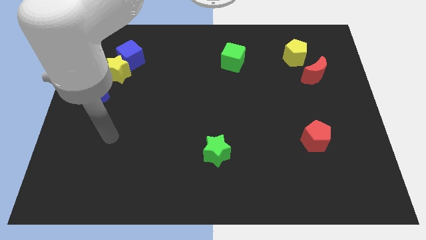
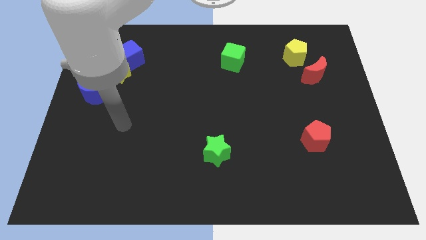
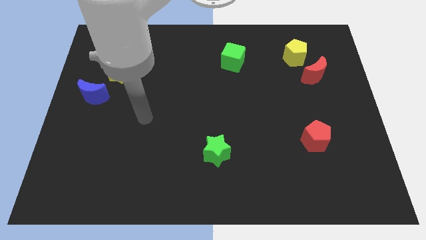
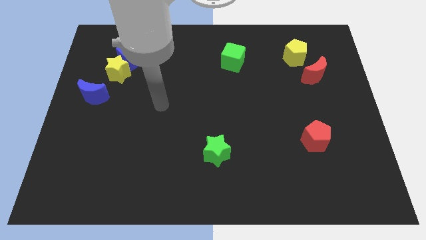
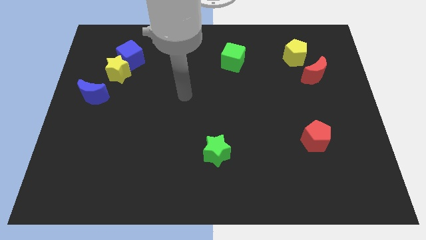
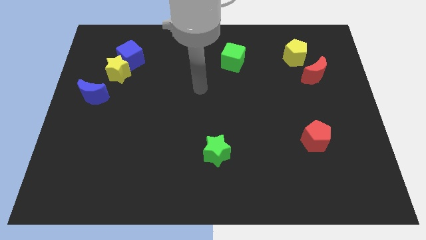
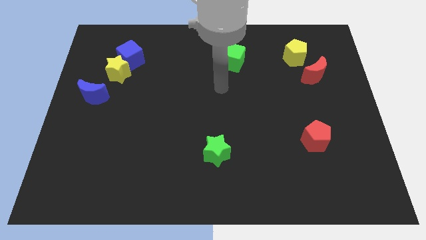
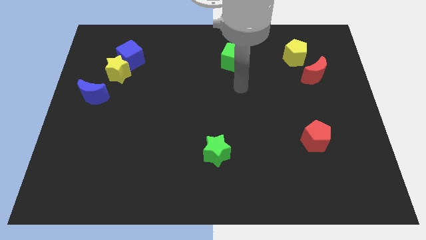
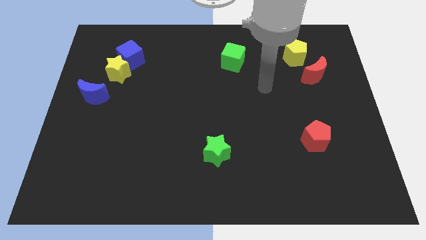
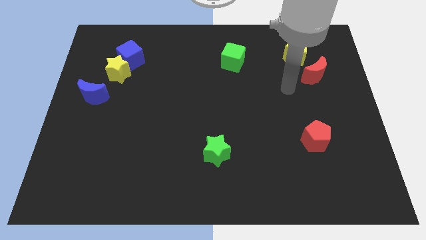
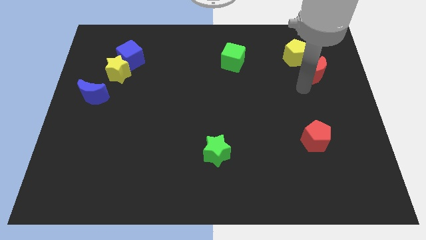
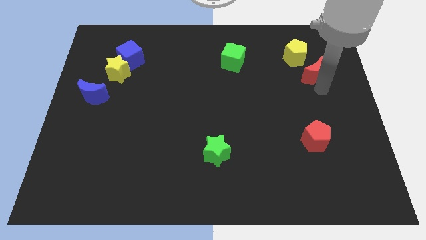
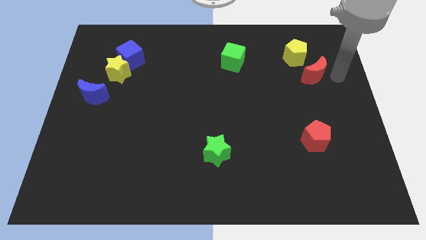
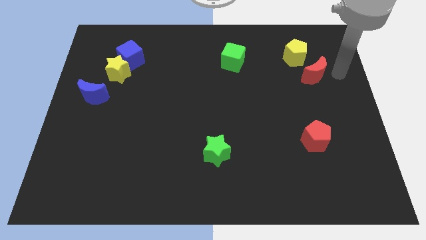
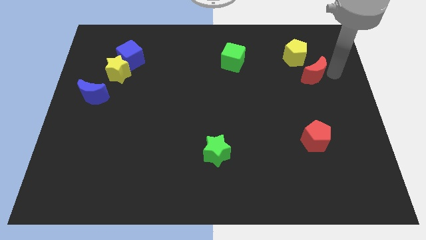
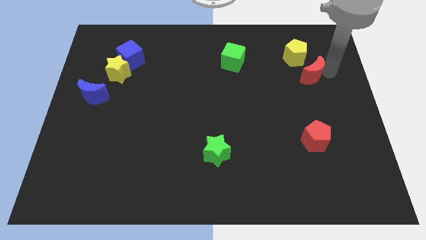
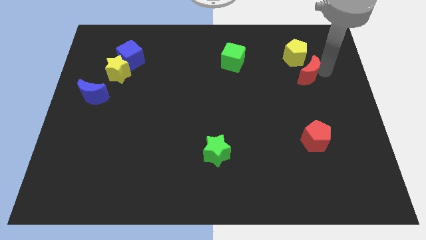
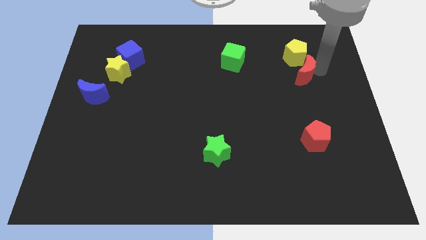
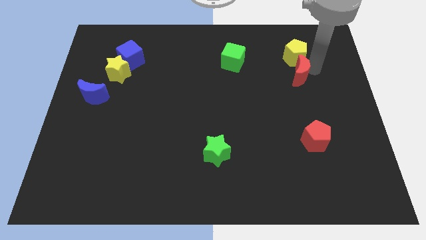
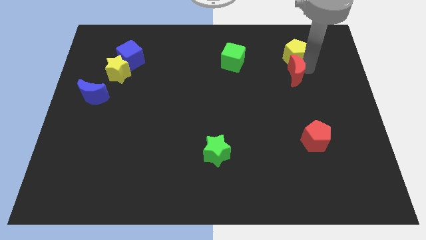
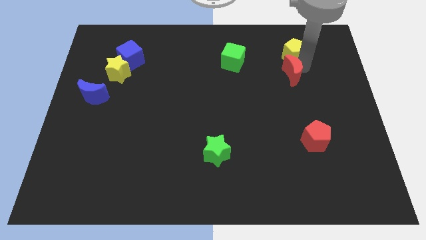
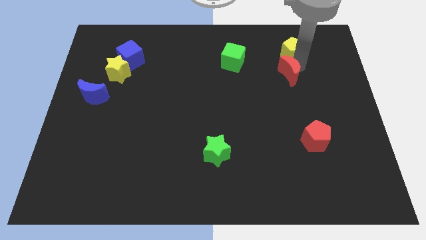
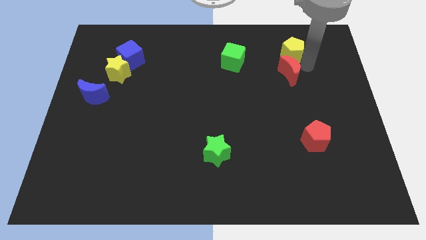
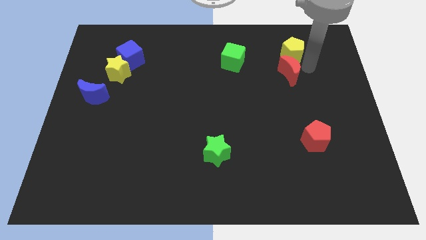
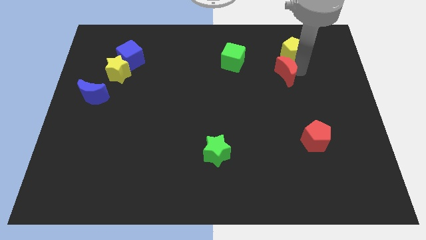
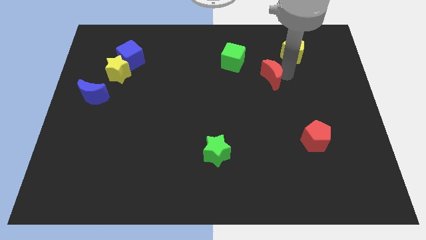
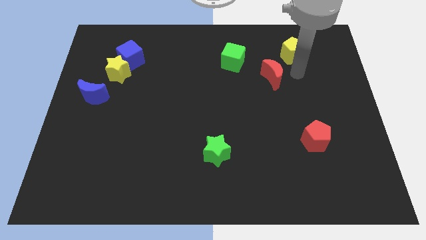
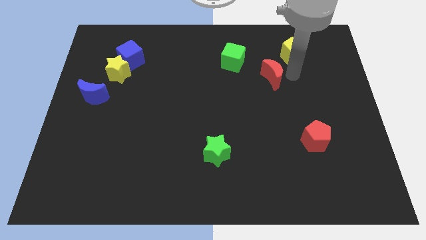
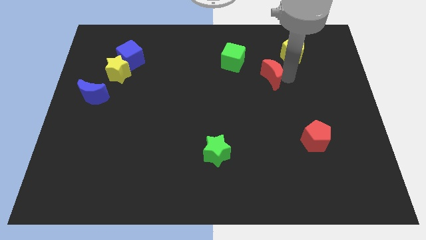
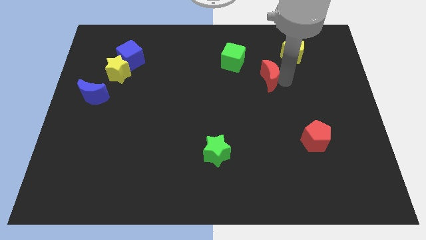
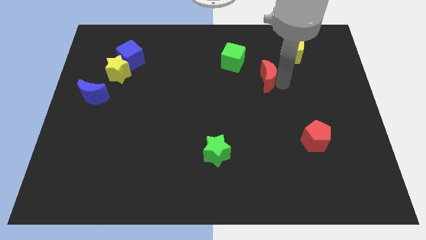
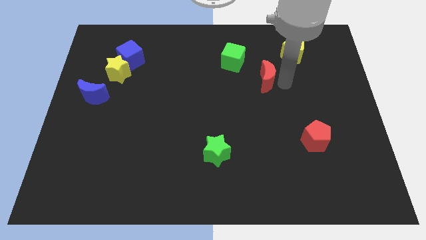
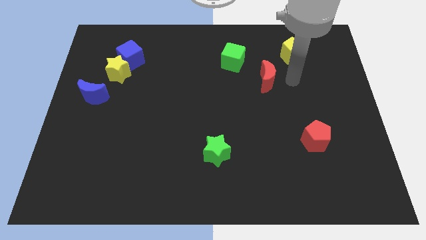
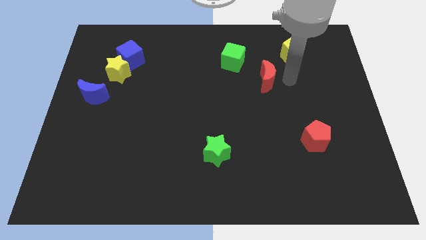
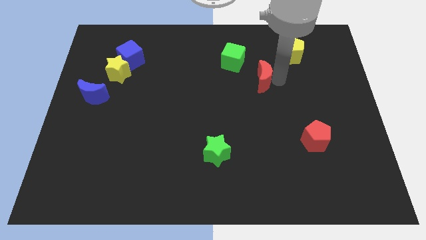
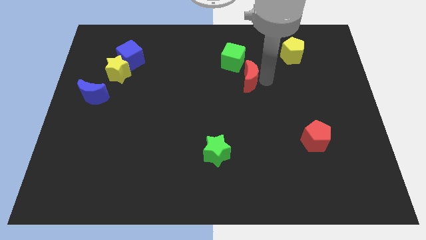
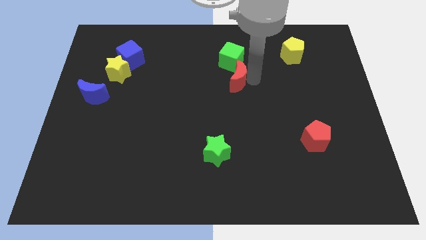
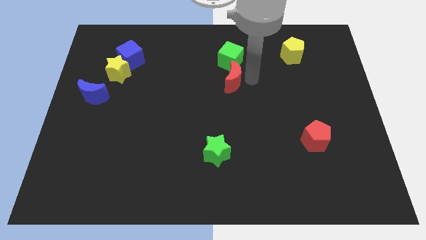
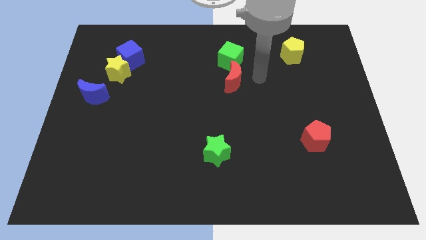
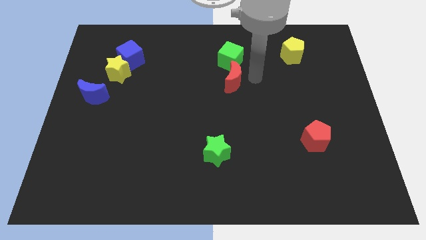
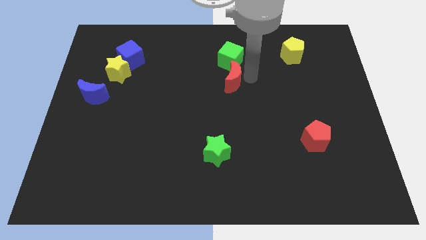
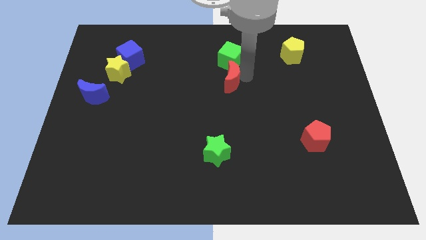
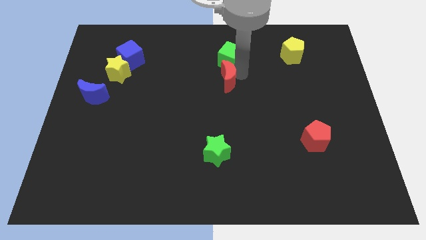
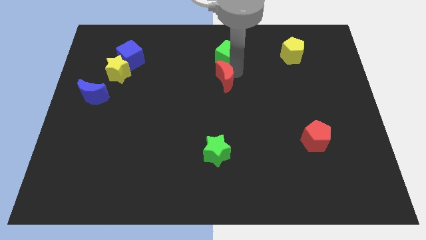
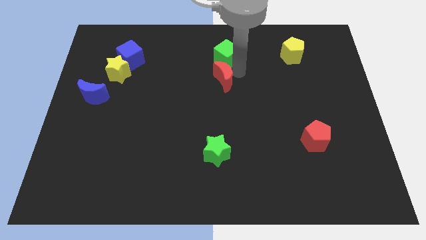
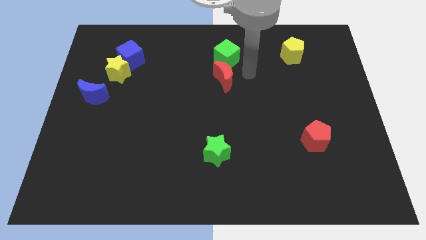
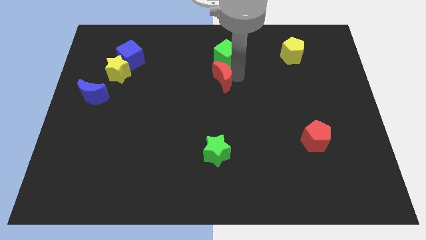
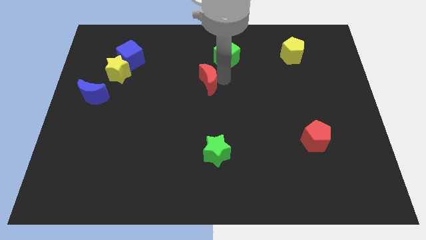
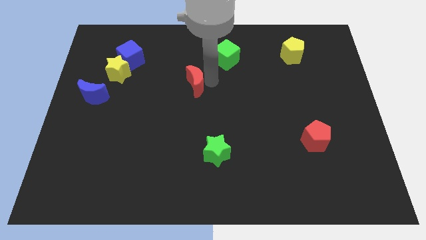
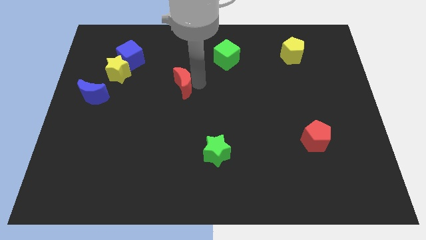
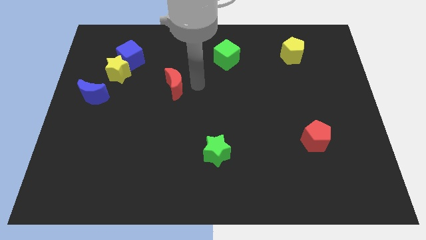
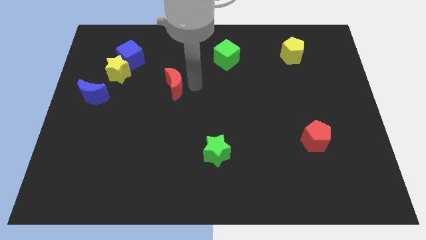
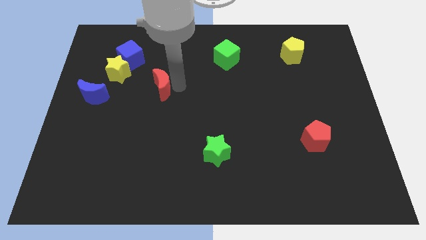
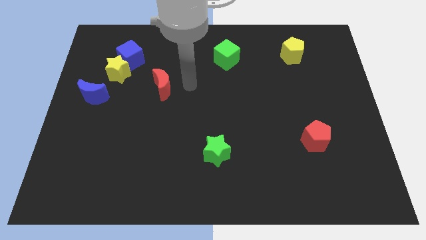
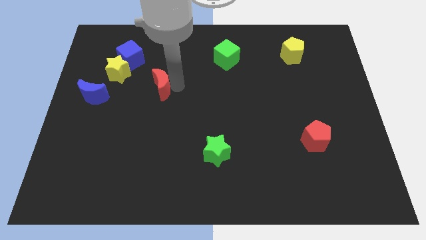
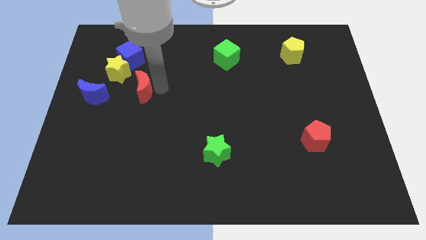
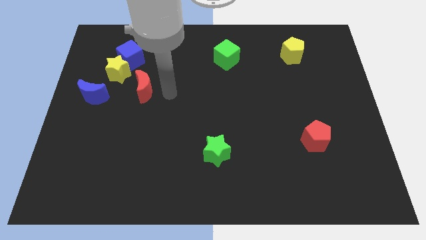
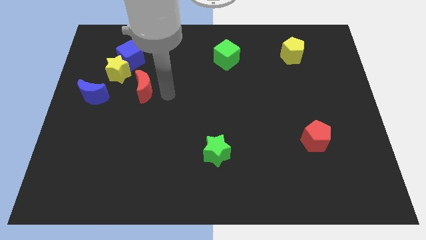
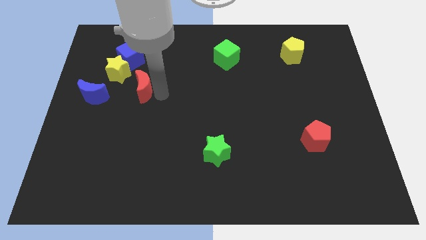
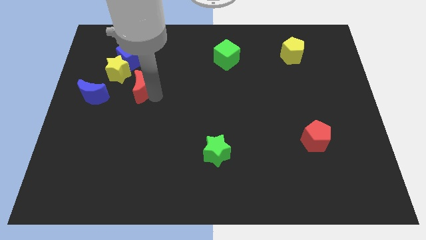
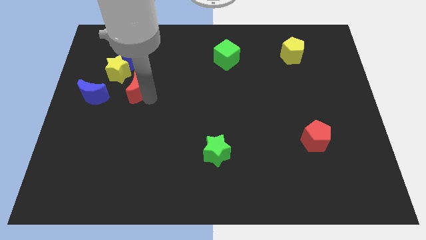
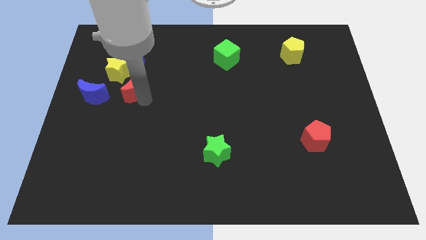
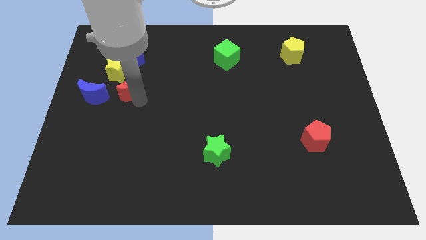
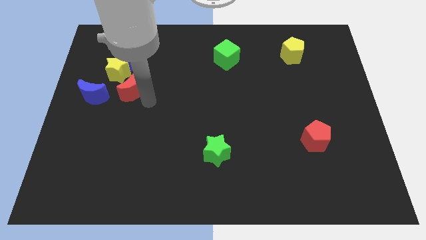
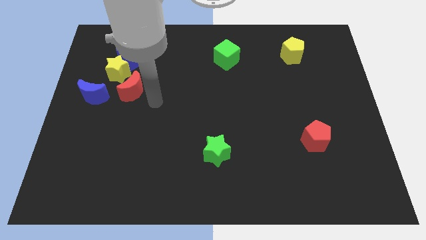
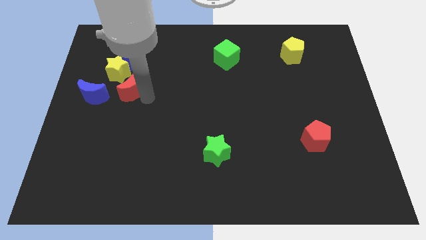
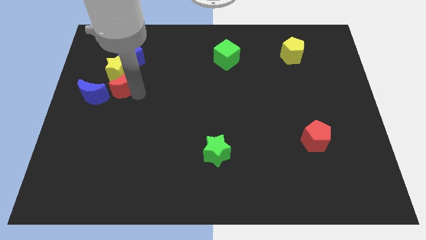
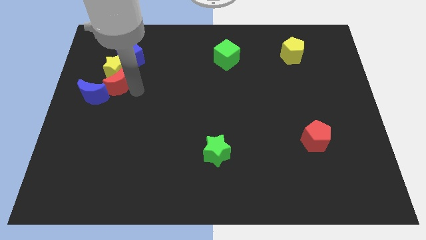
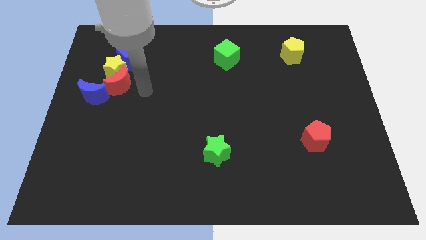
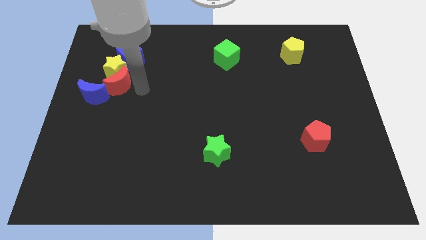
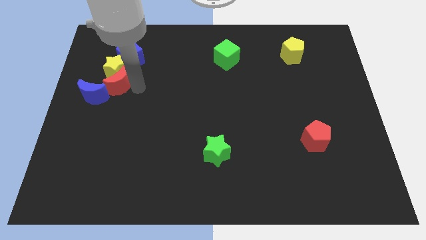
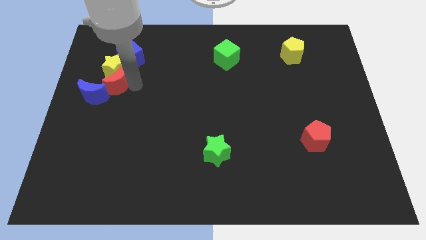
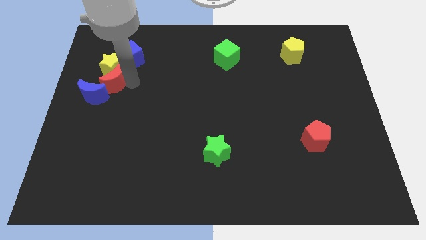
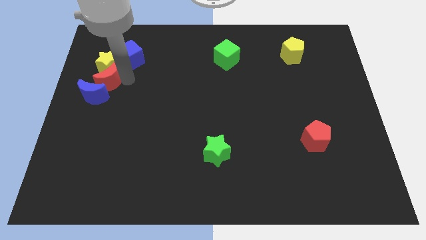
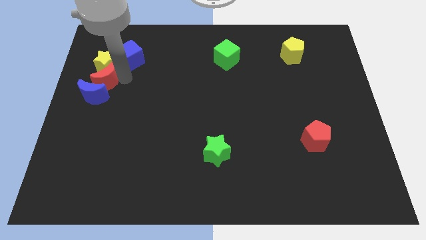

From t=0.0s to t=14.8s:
push the red moon to the left side of the board
